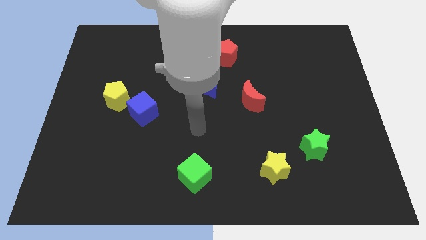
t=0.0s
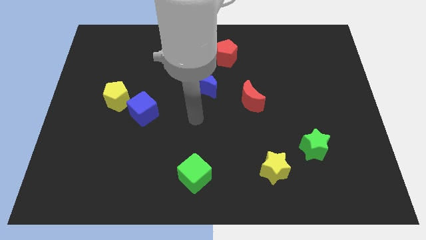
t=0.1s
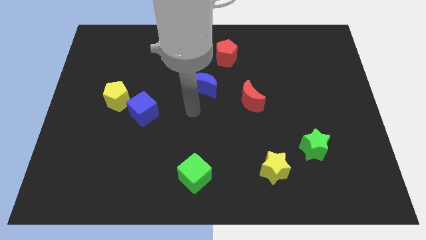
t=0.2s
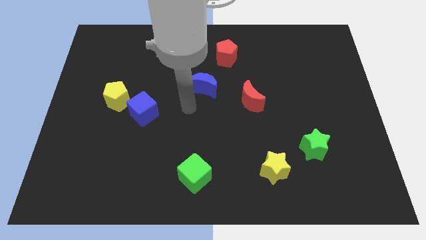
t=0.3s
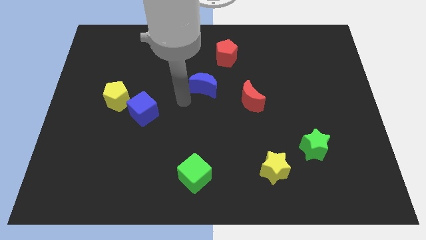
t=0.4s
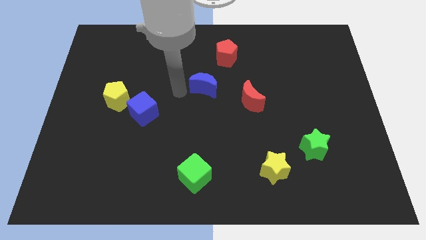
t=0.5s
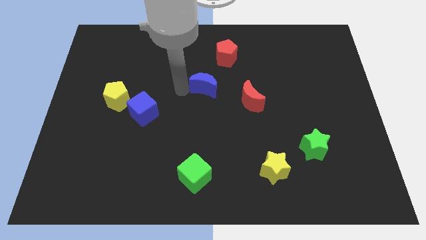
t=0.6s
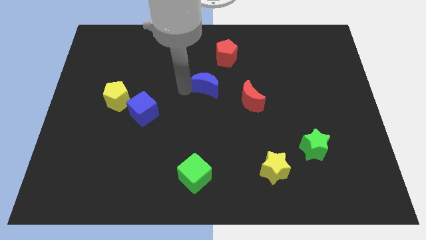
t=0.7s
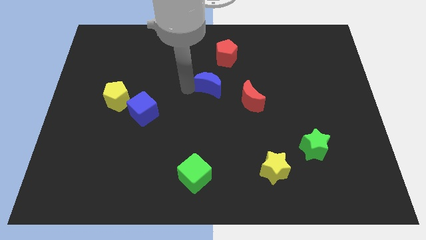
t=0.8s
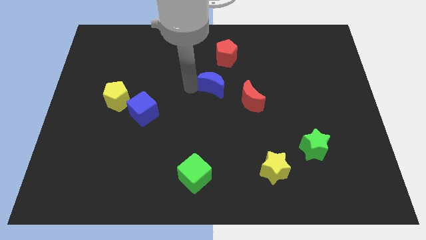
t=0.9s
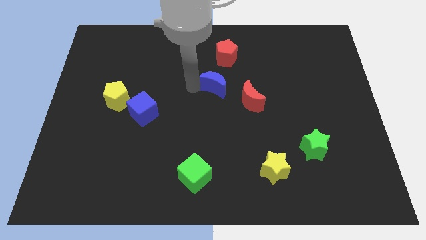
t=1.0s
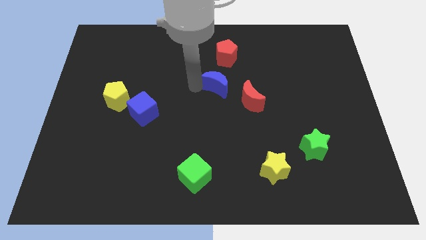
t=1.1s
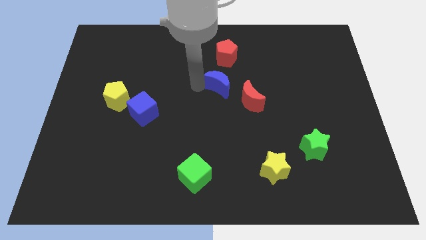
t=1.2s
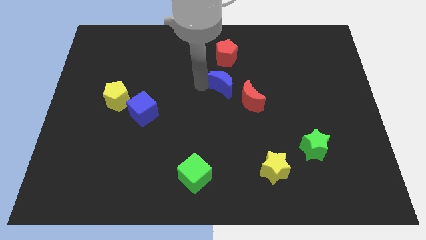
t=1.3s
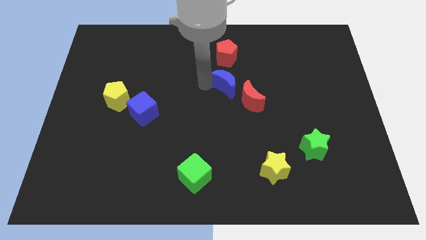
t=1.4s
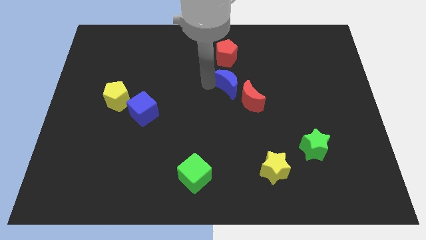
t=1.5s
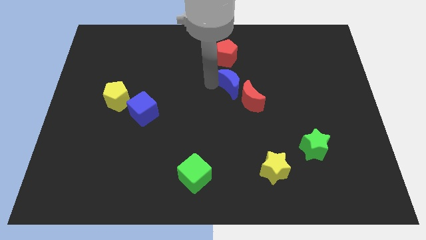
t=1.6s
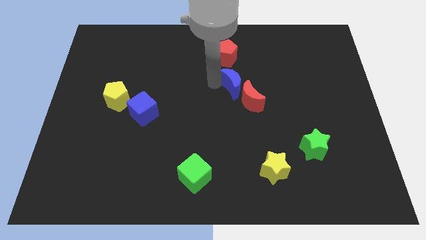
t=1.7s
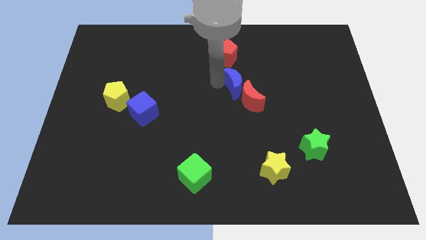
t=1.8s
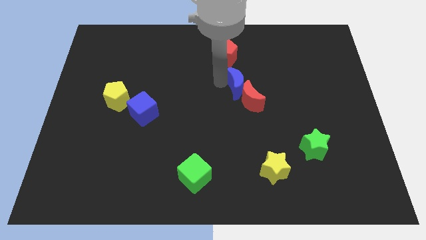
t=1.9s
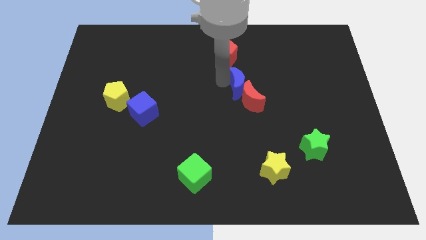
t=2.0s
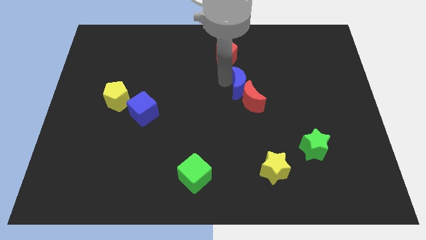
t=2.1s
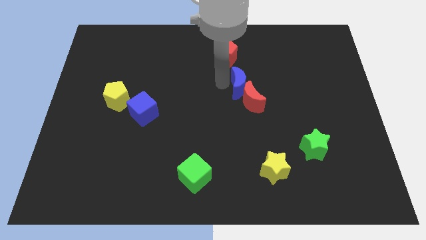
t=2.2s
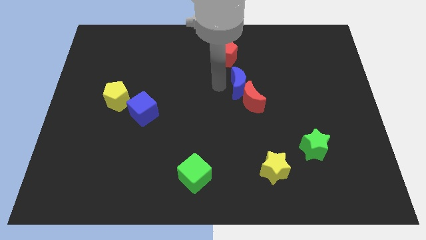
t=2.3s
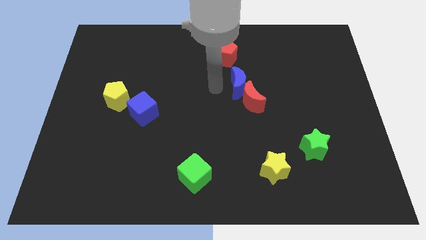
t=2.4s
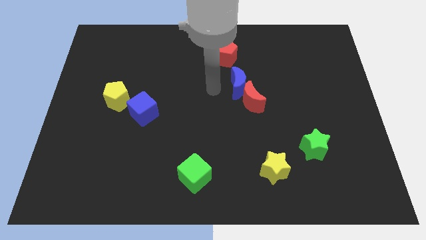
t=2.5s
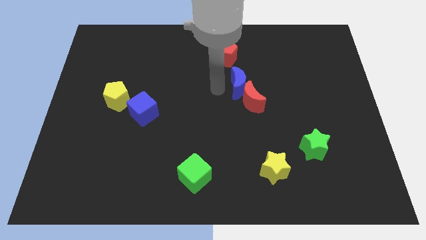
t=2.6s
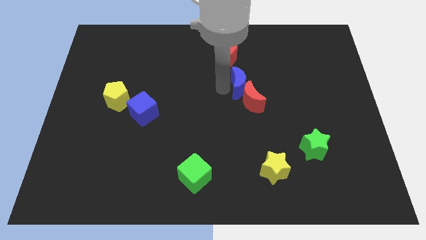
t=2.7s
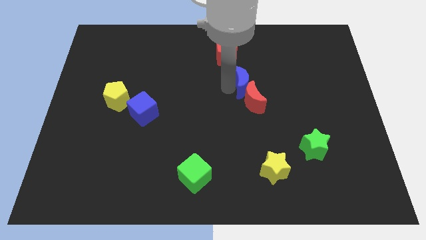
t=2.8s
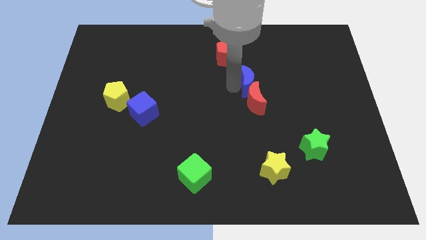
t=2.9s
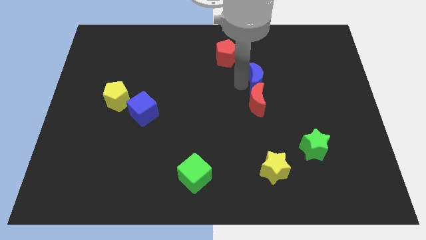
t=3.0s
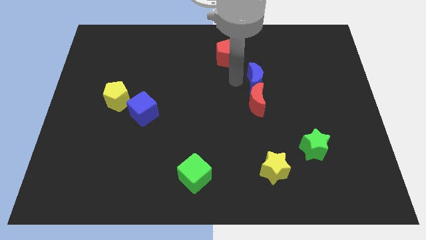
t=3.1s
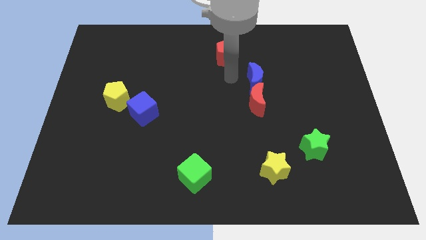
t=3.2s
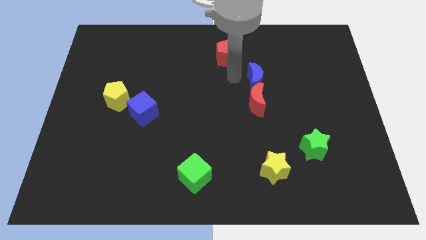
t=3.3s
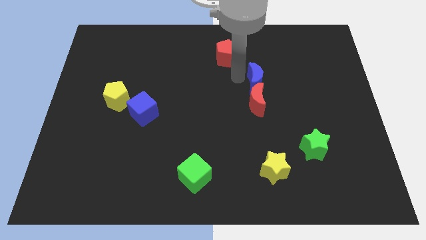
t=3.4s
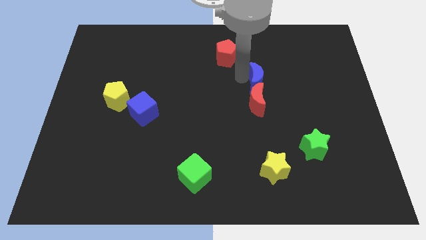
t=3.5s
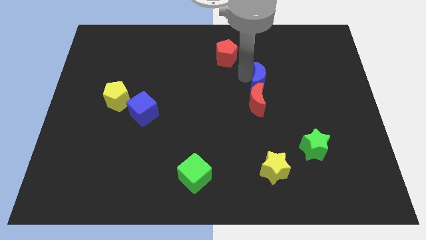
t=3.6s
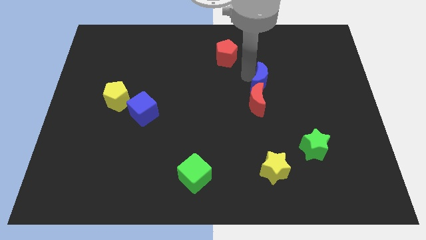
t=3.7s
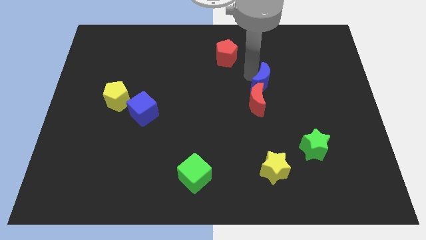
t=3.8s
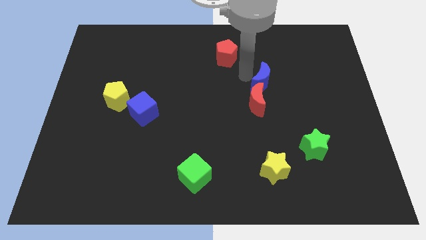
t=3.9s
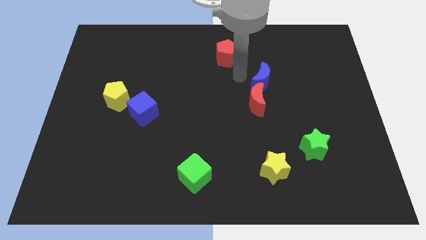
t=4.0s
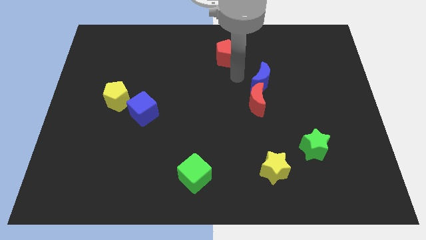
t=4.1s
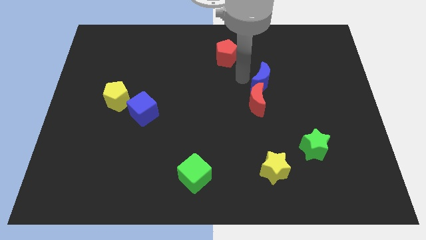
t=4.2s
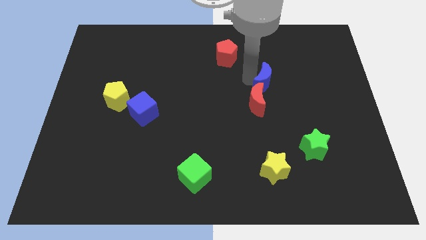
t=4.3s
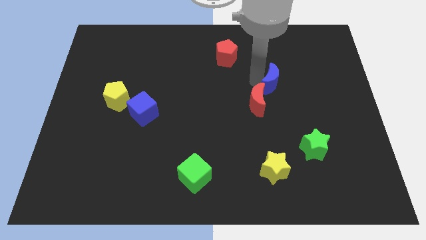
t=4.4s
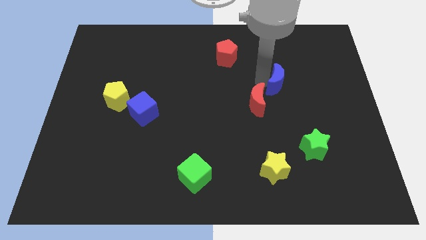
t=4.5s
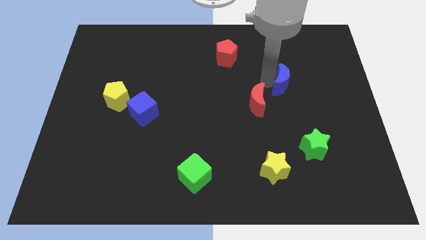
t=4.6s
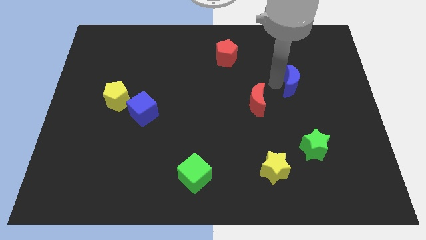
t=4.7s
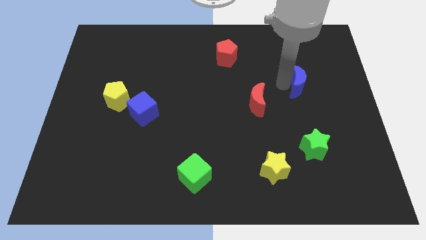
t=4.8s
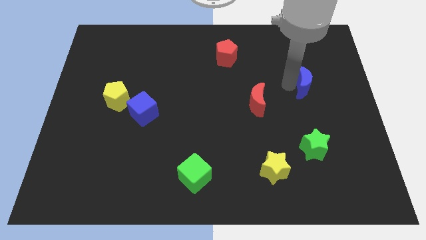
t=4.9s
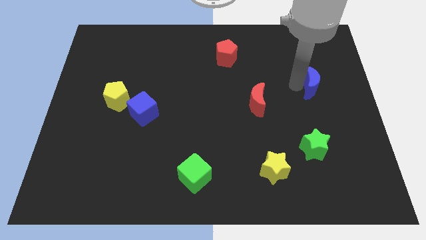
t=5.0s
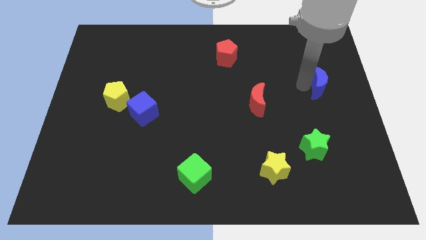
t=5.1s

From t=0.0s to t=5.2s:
slide the blue moon to the right side of the board

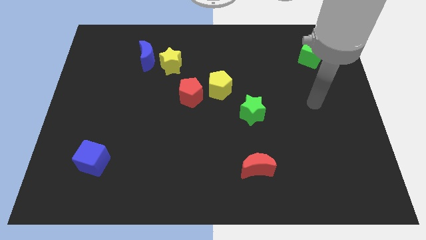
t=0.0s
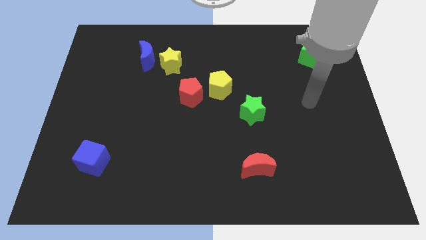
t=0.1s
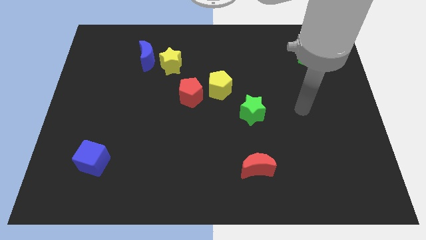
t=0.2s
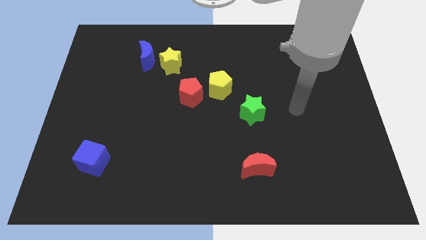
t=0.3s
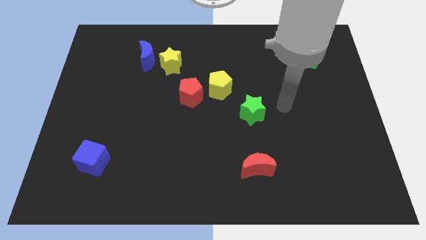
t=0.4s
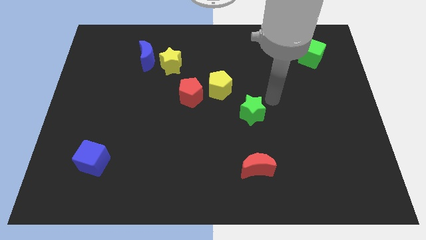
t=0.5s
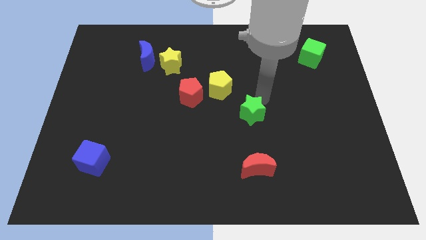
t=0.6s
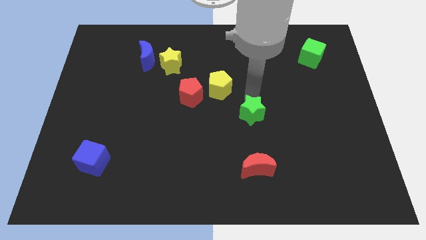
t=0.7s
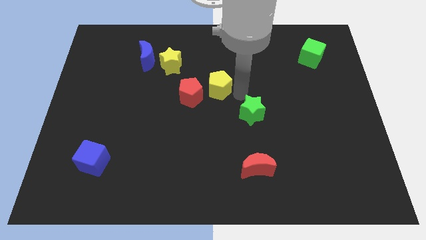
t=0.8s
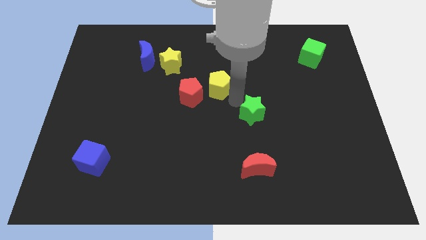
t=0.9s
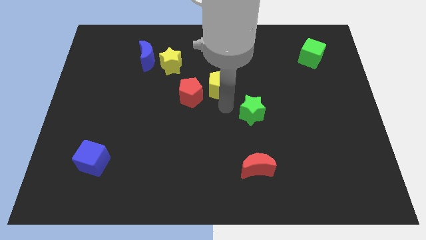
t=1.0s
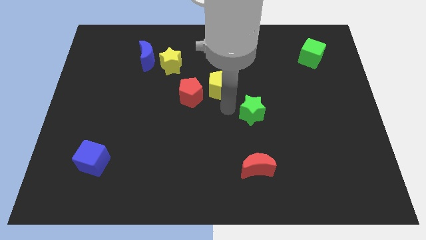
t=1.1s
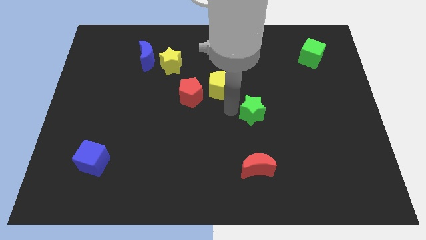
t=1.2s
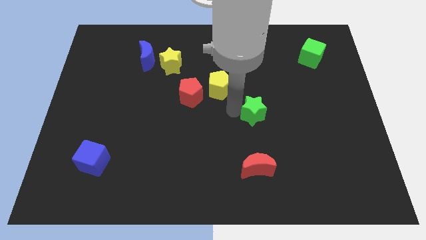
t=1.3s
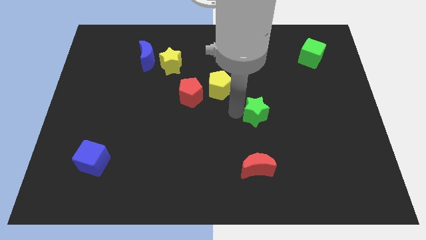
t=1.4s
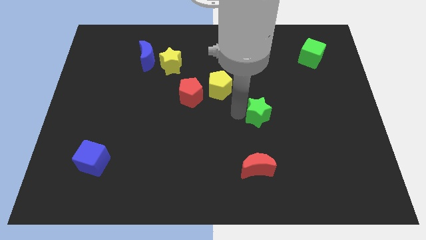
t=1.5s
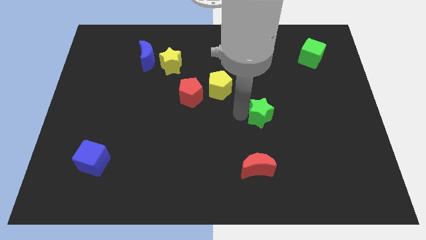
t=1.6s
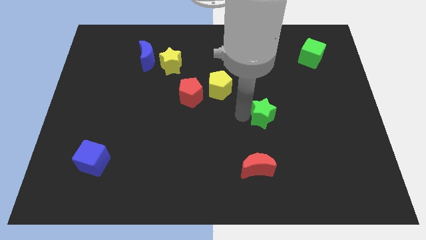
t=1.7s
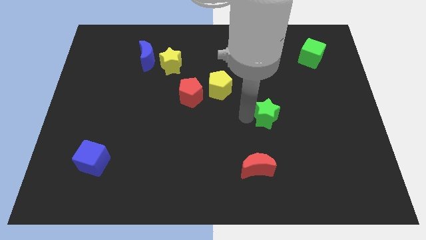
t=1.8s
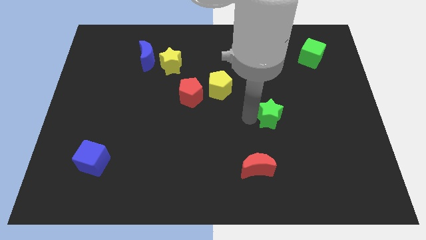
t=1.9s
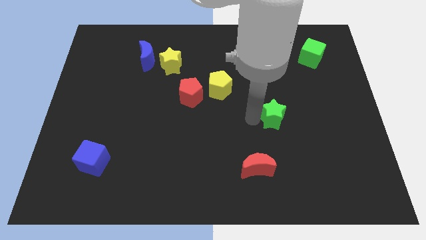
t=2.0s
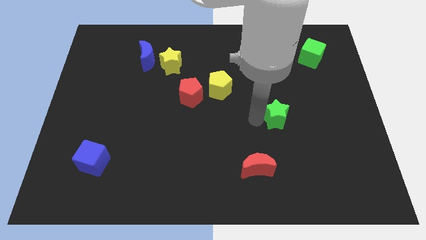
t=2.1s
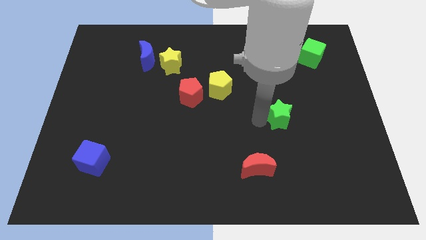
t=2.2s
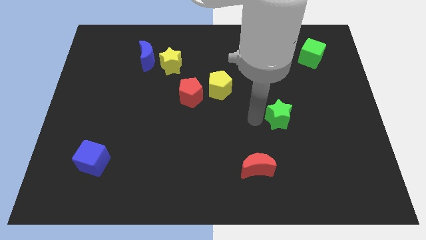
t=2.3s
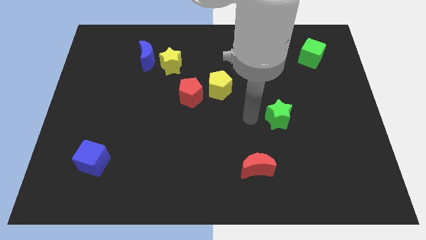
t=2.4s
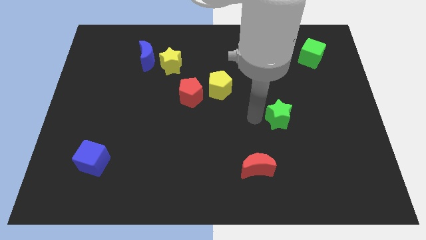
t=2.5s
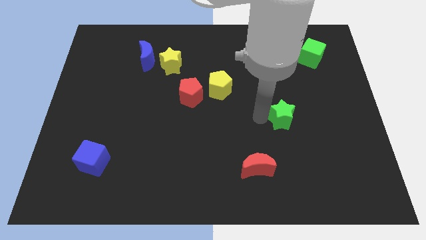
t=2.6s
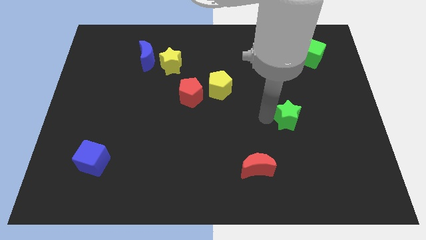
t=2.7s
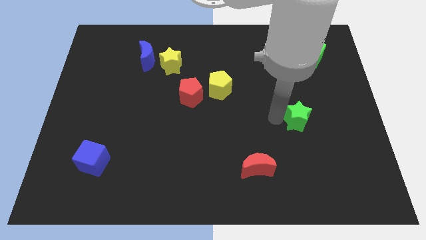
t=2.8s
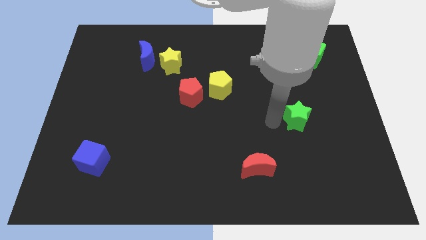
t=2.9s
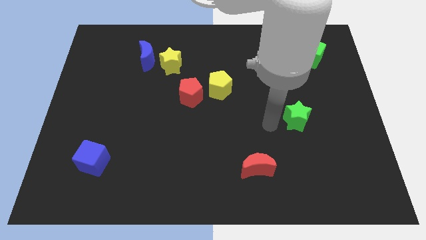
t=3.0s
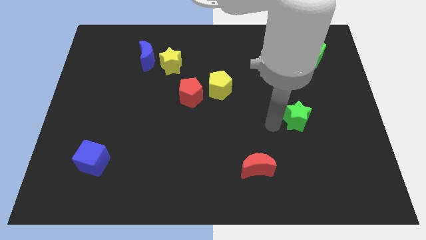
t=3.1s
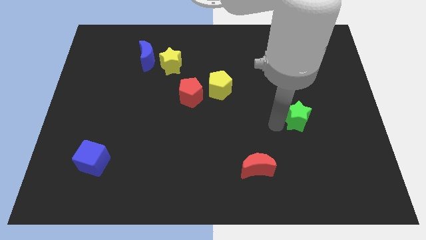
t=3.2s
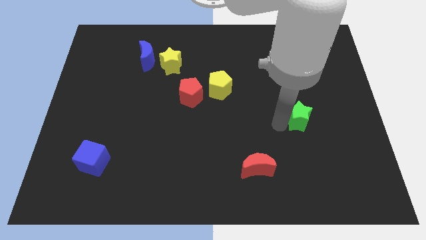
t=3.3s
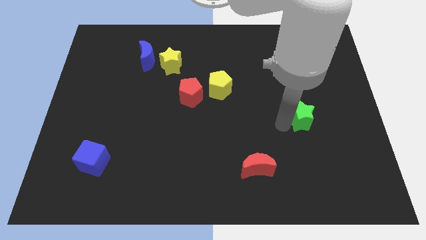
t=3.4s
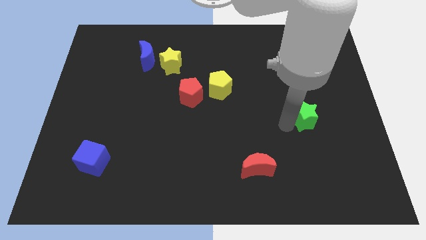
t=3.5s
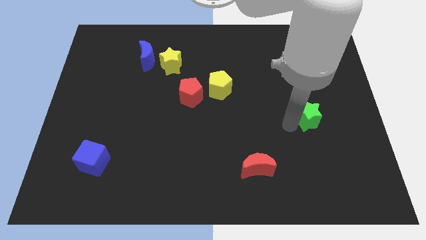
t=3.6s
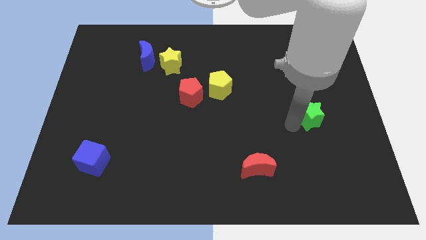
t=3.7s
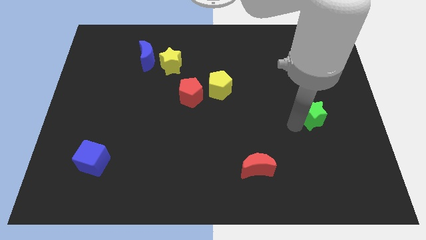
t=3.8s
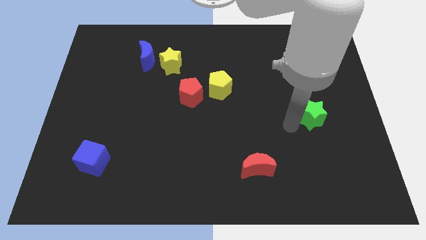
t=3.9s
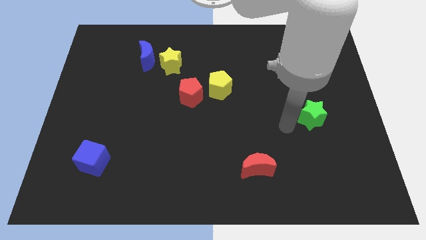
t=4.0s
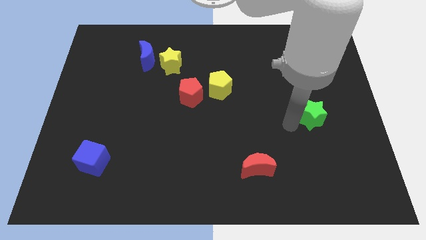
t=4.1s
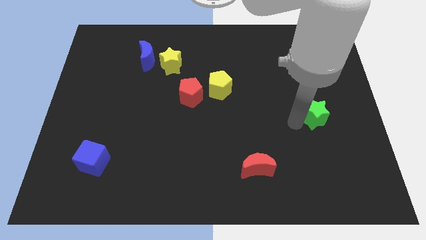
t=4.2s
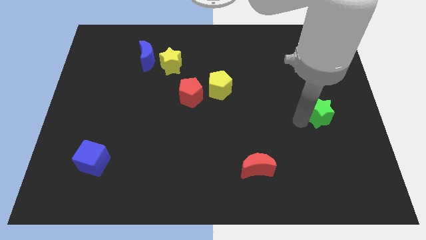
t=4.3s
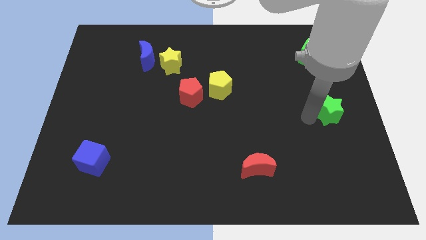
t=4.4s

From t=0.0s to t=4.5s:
put the green star to the right side
